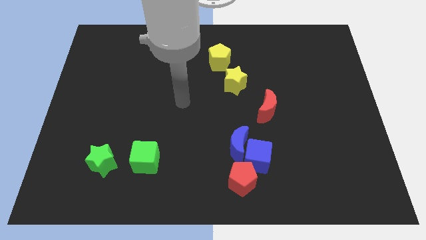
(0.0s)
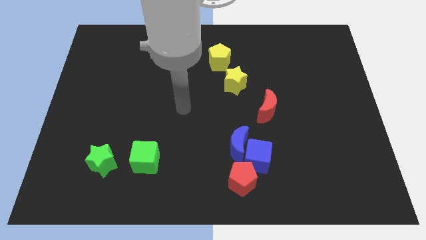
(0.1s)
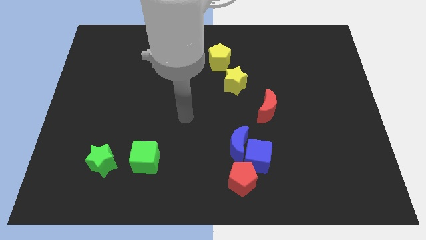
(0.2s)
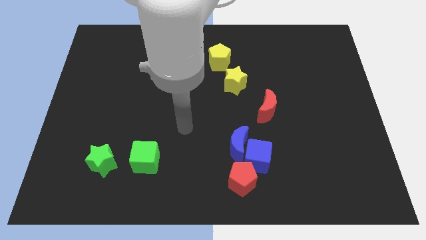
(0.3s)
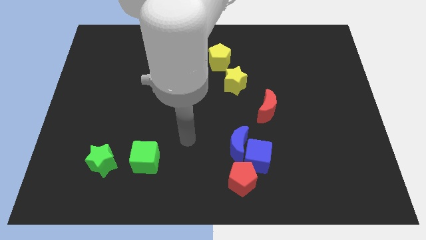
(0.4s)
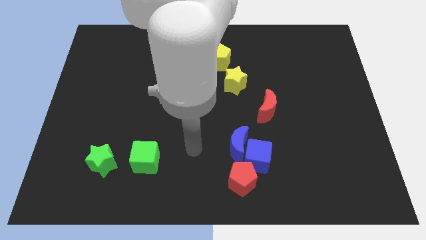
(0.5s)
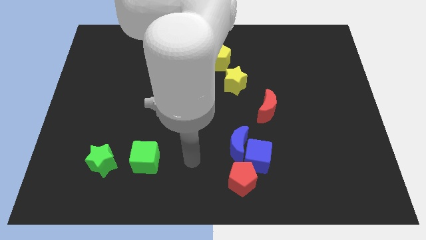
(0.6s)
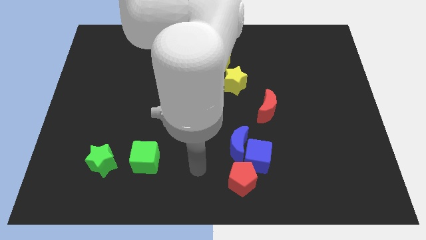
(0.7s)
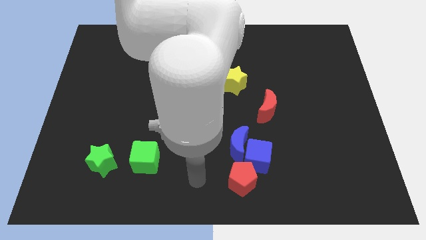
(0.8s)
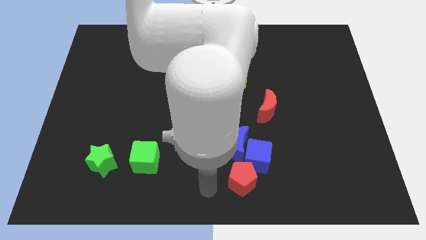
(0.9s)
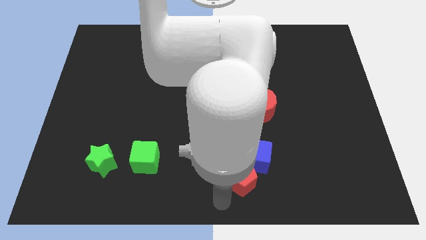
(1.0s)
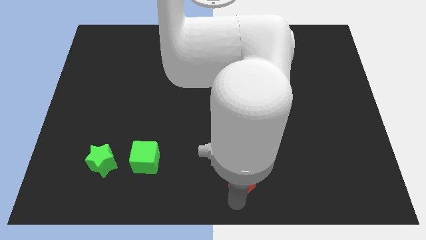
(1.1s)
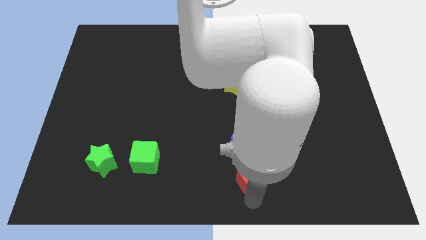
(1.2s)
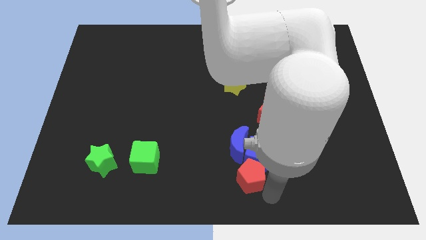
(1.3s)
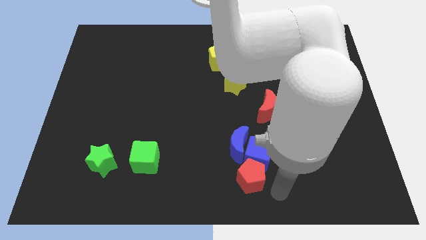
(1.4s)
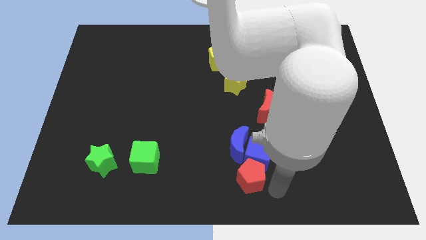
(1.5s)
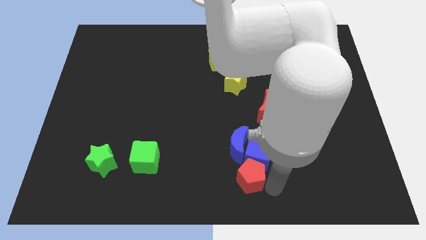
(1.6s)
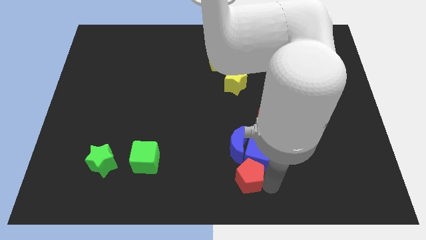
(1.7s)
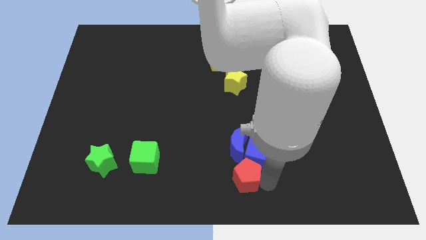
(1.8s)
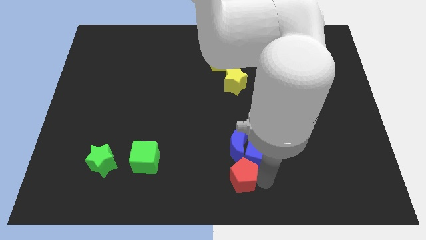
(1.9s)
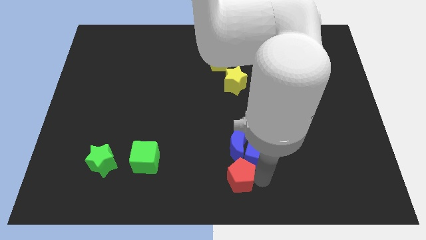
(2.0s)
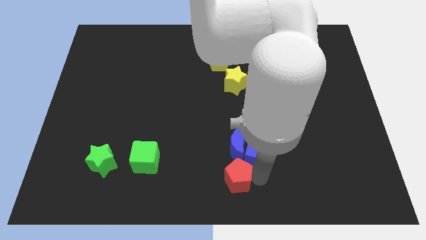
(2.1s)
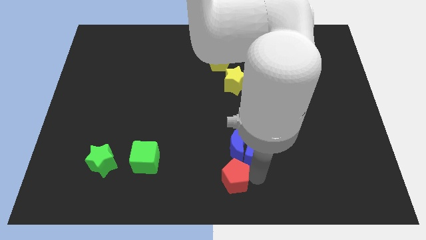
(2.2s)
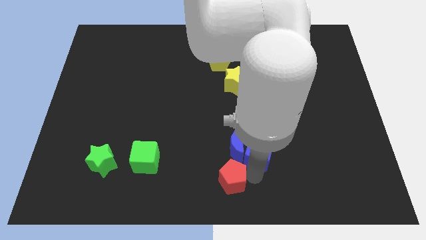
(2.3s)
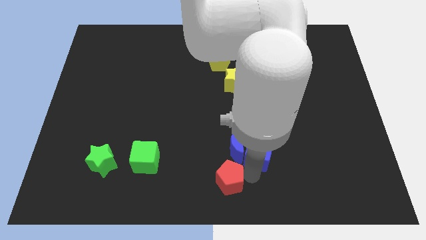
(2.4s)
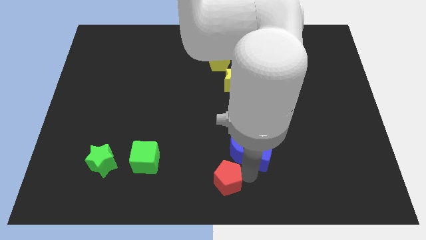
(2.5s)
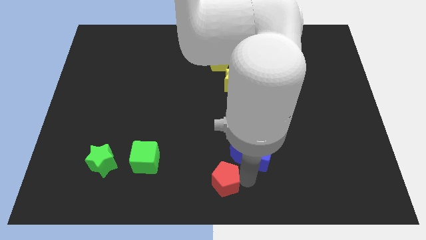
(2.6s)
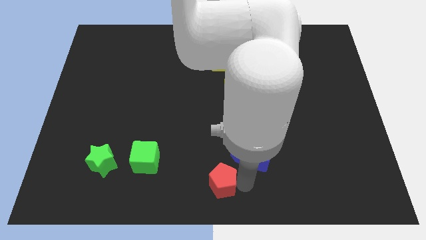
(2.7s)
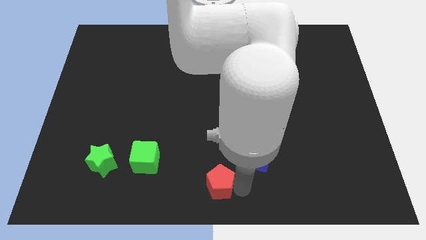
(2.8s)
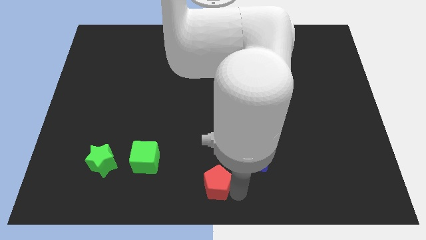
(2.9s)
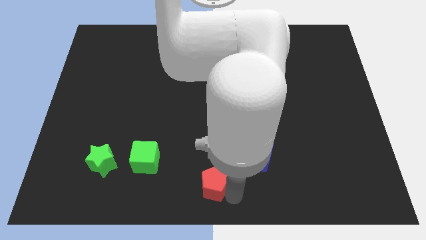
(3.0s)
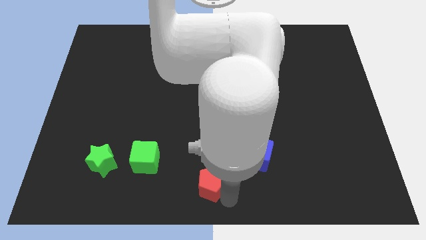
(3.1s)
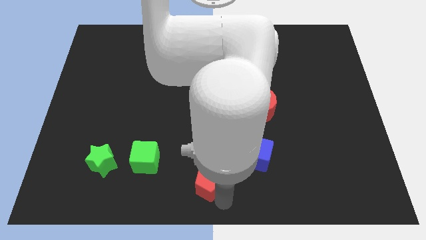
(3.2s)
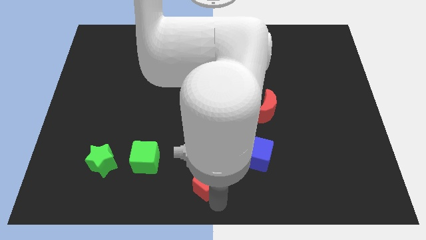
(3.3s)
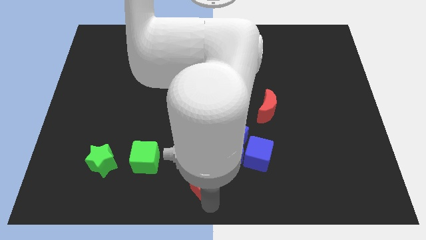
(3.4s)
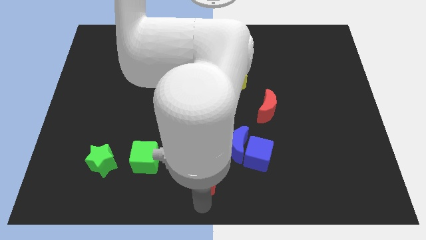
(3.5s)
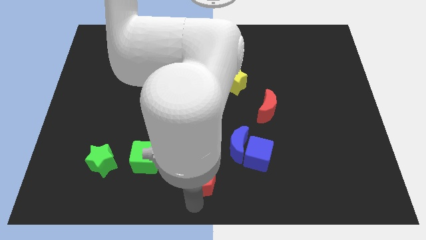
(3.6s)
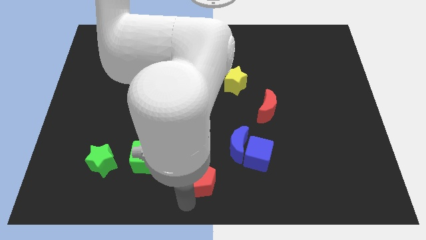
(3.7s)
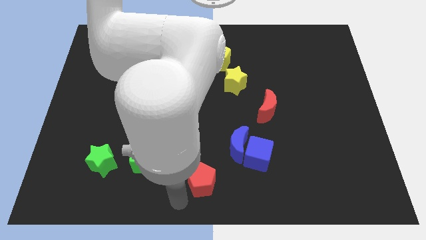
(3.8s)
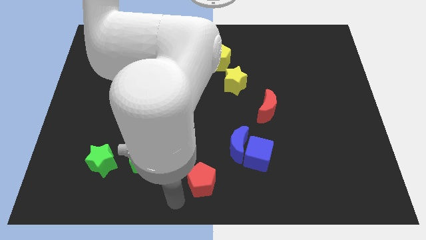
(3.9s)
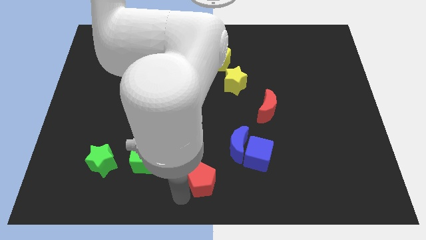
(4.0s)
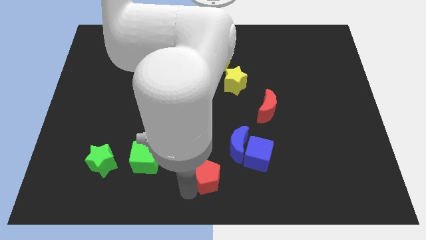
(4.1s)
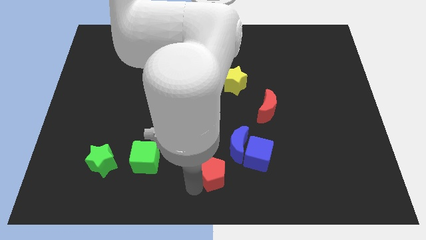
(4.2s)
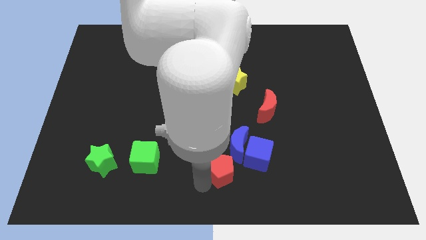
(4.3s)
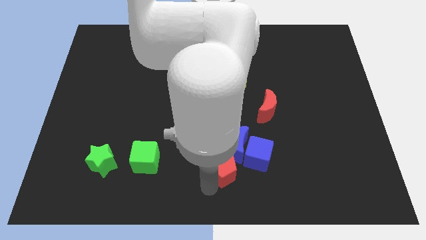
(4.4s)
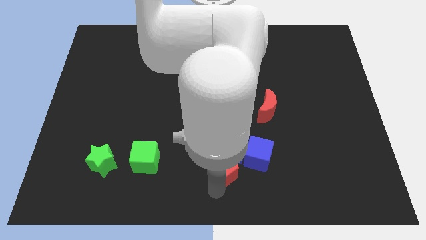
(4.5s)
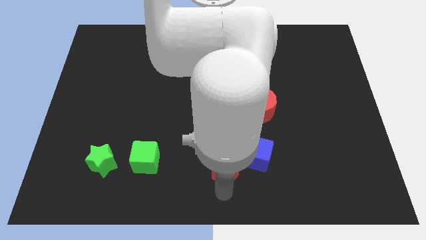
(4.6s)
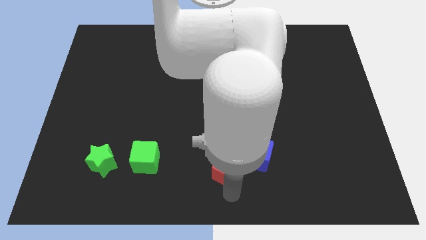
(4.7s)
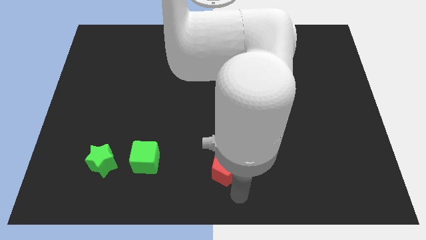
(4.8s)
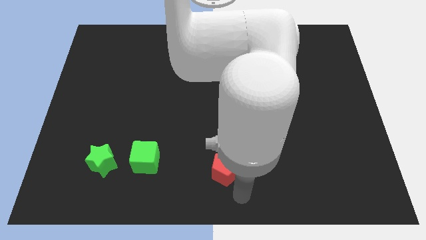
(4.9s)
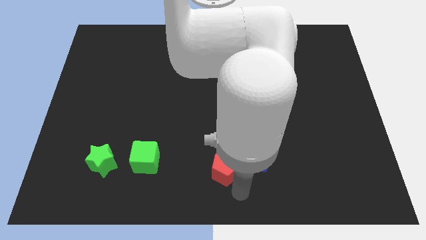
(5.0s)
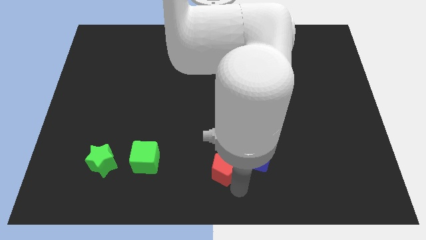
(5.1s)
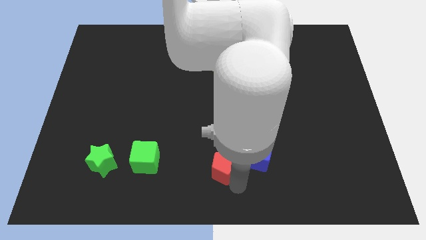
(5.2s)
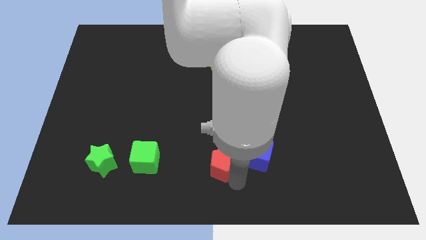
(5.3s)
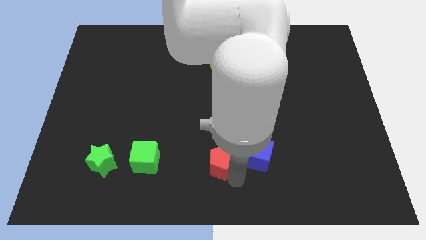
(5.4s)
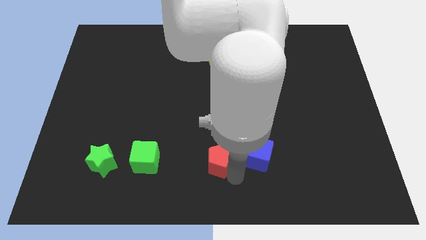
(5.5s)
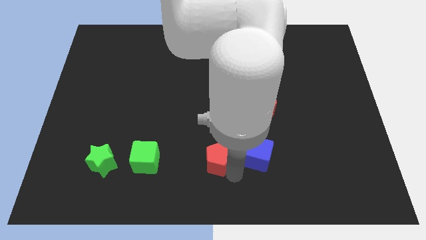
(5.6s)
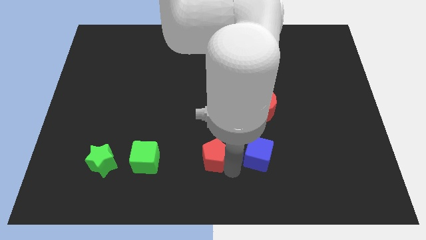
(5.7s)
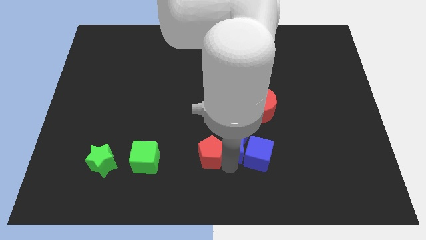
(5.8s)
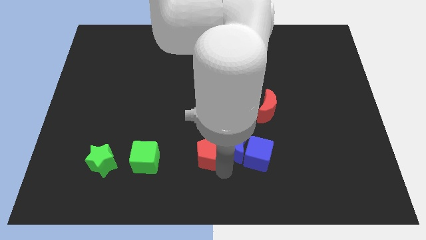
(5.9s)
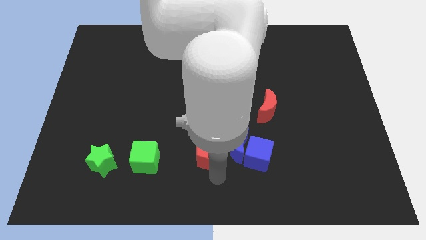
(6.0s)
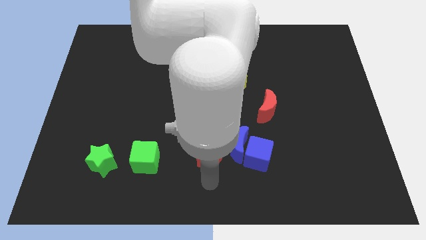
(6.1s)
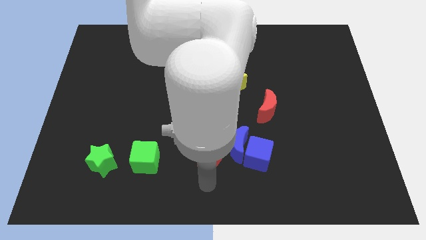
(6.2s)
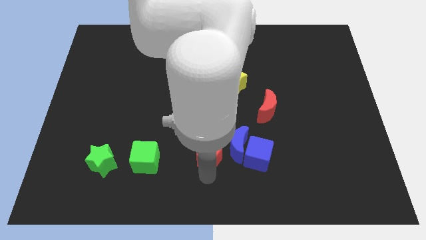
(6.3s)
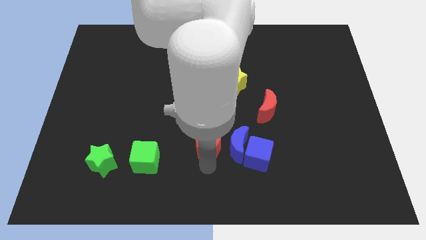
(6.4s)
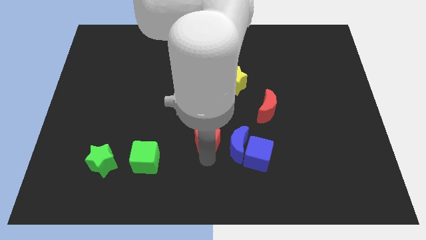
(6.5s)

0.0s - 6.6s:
put the red pentagon to the middle of the board

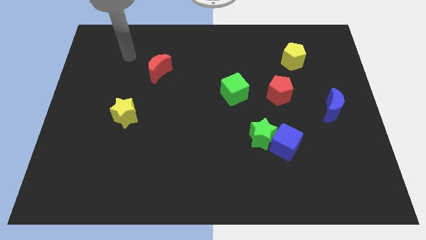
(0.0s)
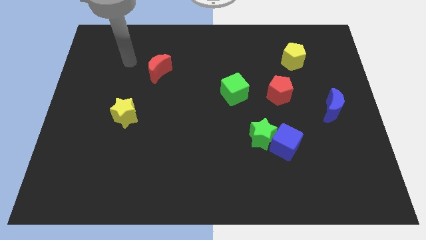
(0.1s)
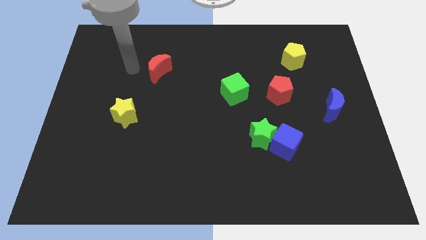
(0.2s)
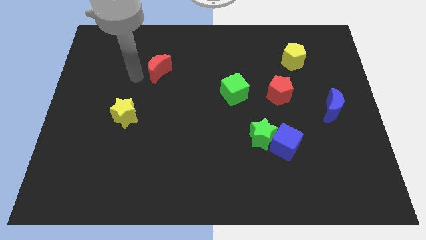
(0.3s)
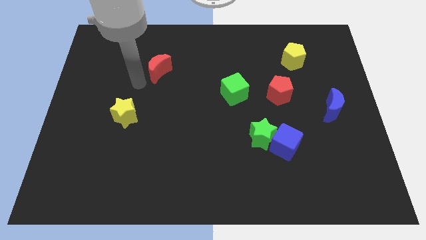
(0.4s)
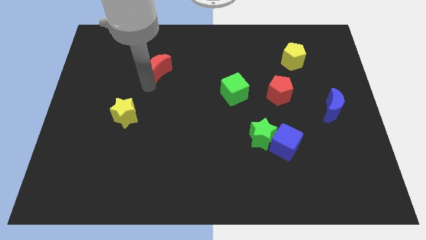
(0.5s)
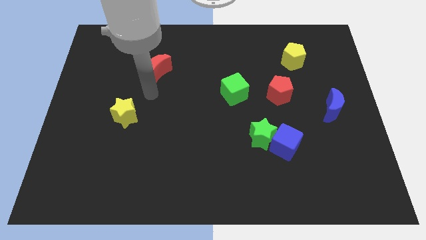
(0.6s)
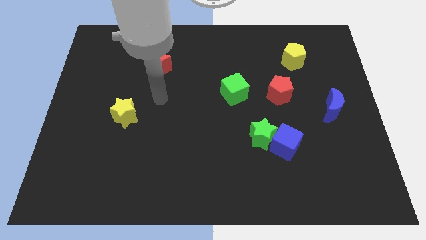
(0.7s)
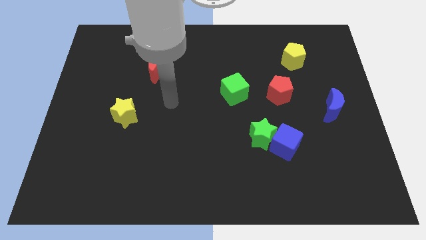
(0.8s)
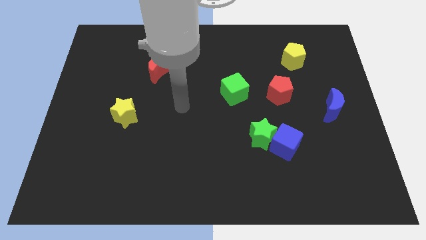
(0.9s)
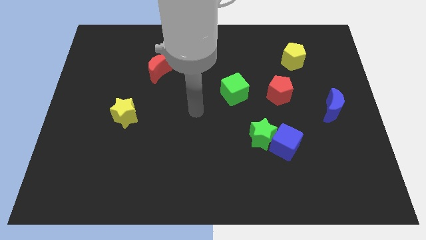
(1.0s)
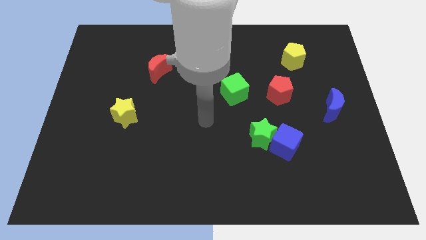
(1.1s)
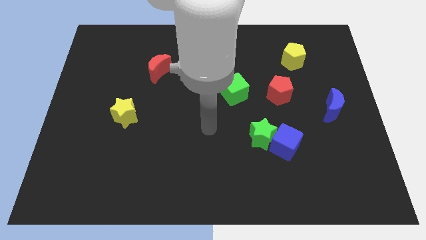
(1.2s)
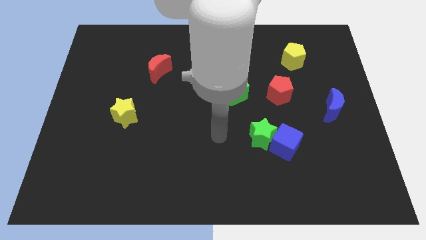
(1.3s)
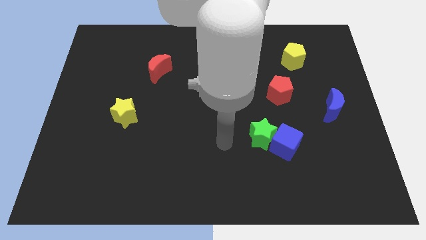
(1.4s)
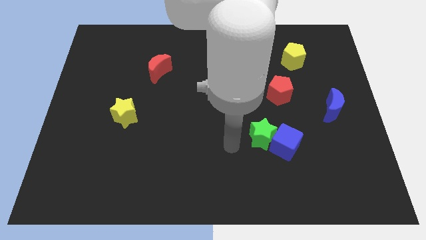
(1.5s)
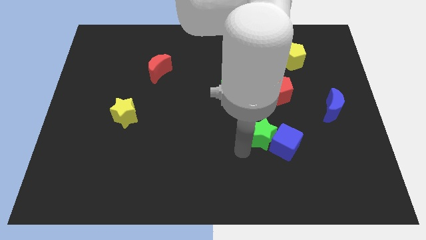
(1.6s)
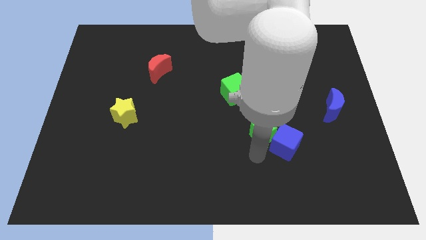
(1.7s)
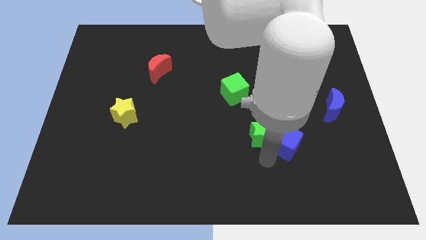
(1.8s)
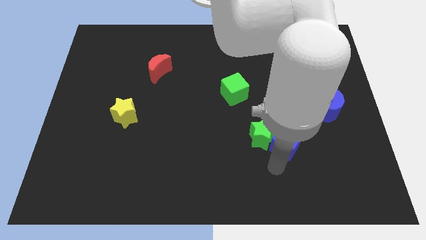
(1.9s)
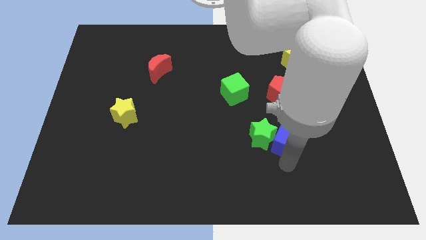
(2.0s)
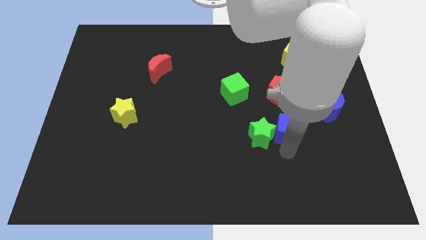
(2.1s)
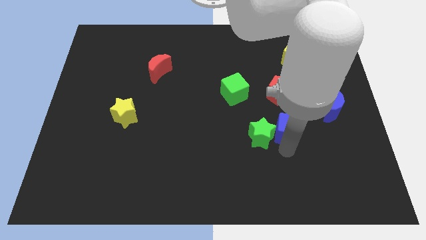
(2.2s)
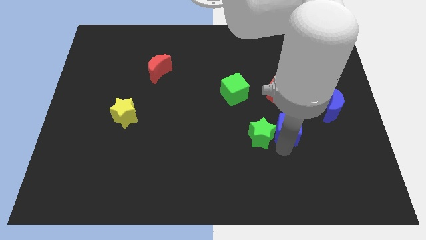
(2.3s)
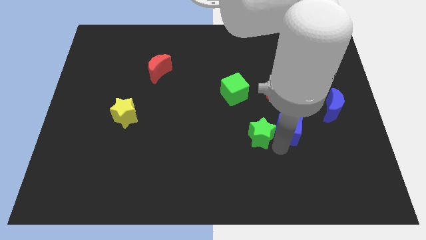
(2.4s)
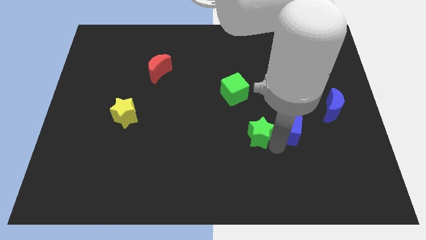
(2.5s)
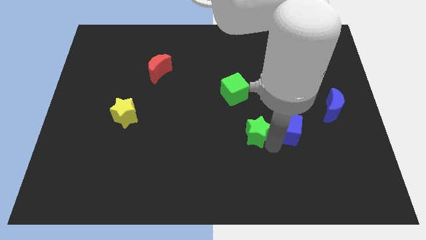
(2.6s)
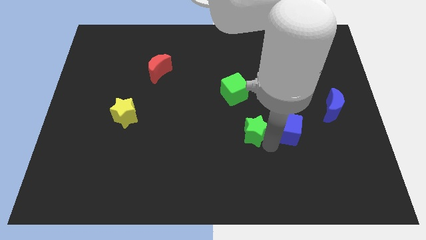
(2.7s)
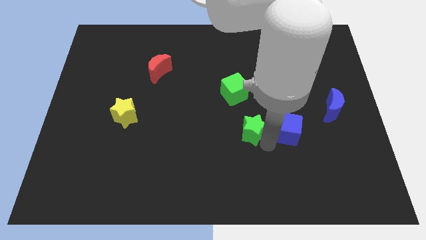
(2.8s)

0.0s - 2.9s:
move the green star to the middle of the board
